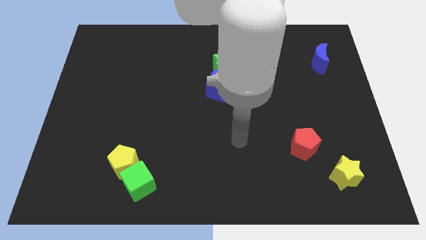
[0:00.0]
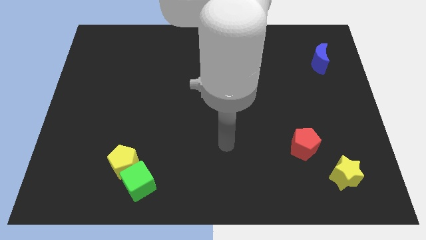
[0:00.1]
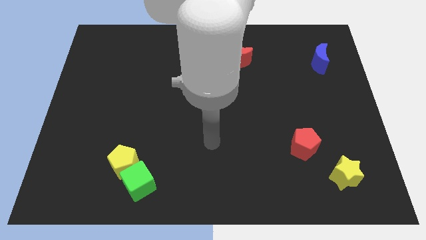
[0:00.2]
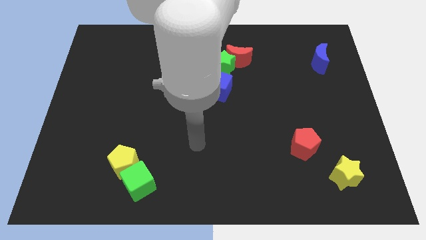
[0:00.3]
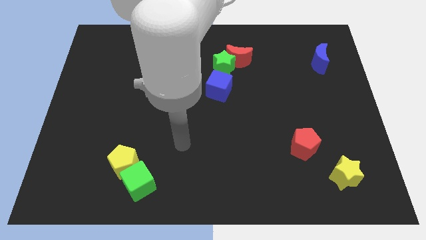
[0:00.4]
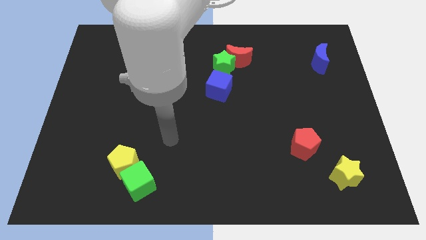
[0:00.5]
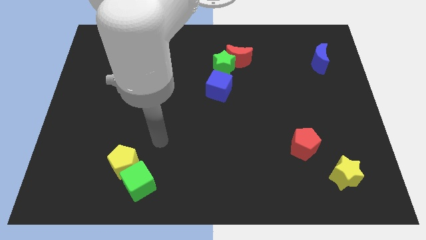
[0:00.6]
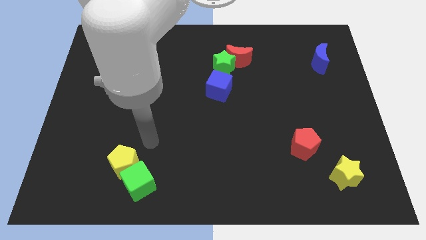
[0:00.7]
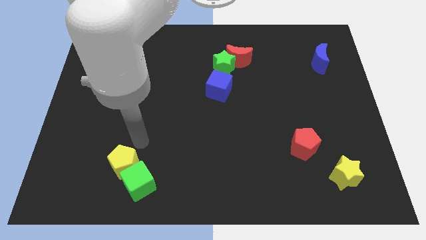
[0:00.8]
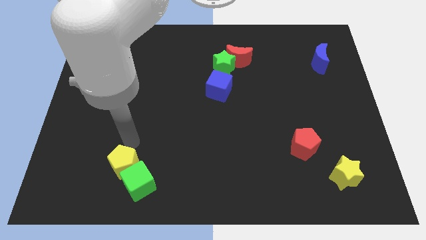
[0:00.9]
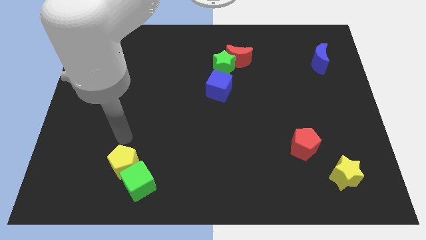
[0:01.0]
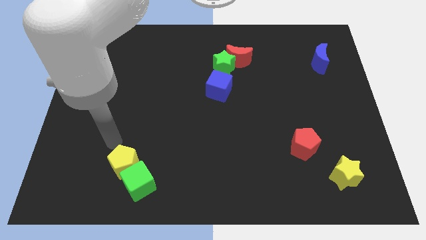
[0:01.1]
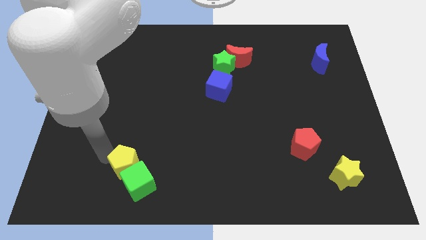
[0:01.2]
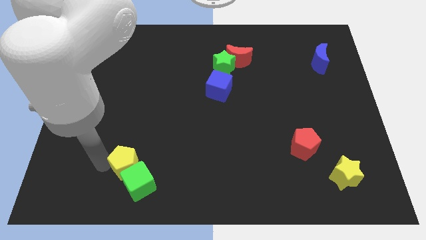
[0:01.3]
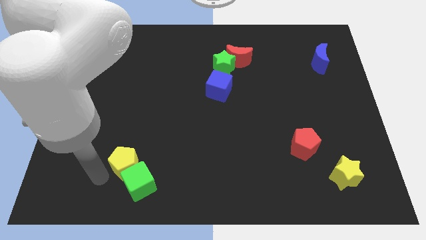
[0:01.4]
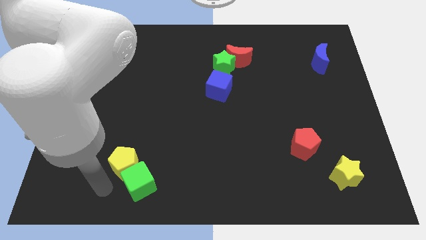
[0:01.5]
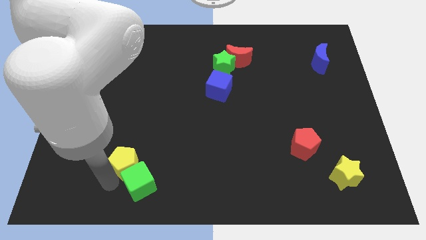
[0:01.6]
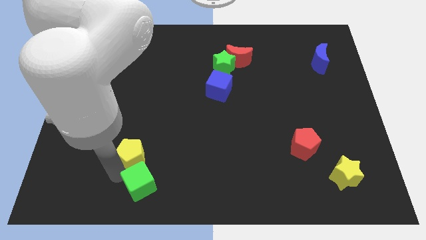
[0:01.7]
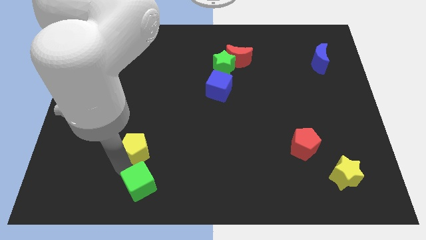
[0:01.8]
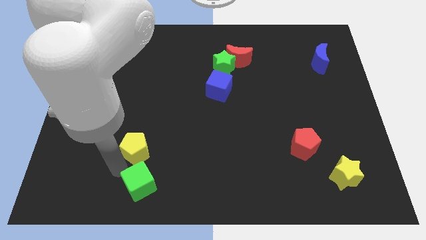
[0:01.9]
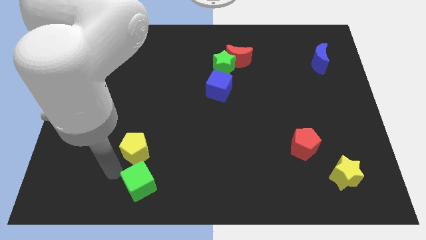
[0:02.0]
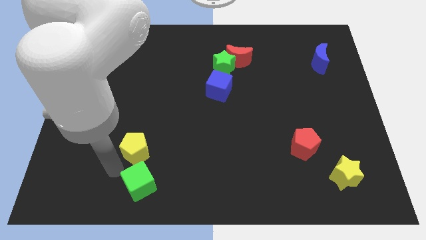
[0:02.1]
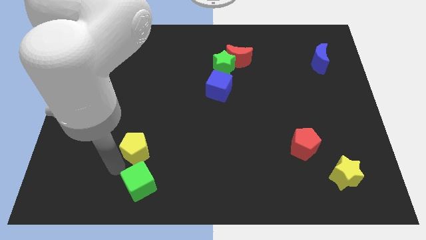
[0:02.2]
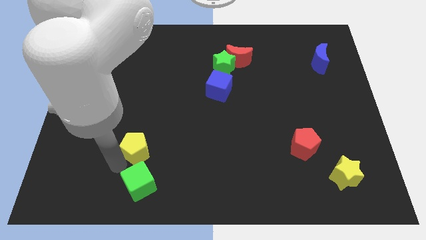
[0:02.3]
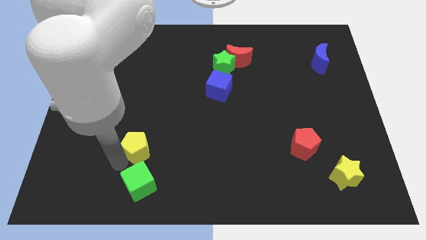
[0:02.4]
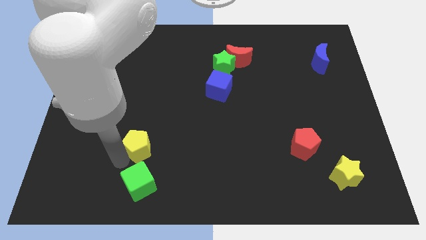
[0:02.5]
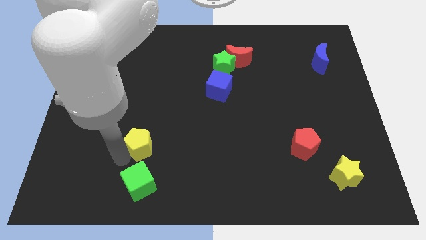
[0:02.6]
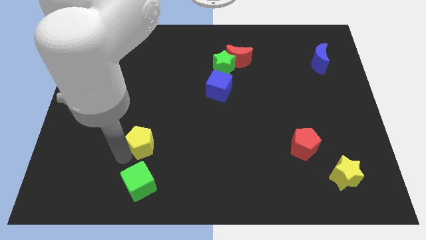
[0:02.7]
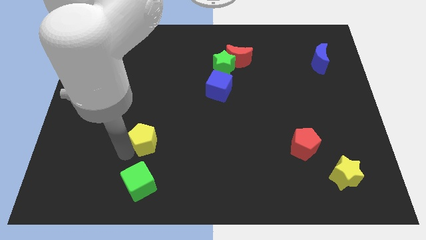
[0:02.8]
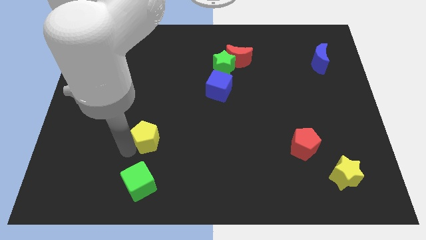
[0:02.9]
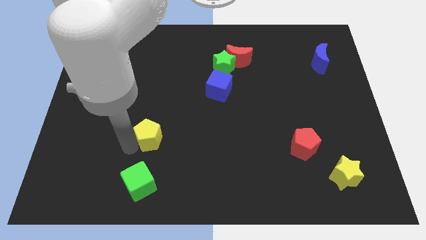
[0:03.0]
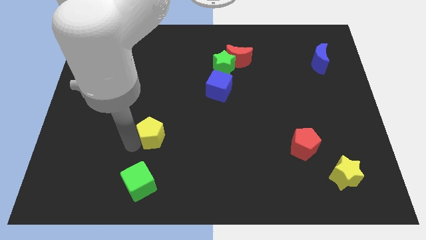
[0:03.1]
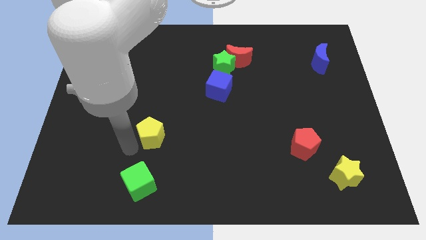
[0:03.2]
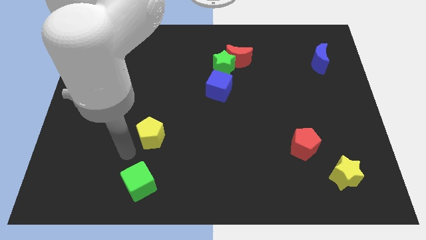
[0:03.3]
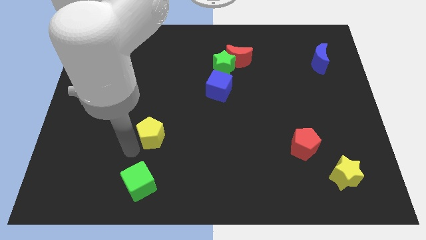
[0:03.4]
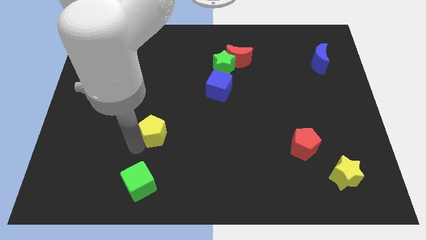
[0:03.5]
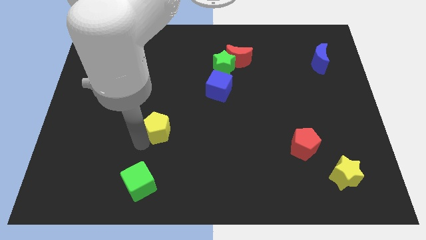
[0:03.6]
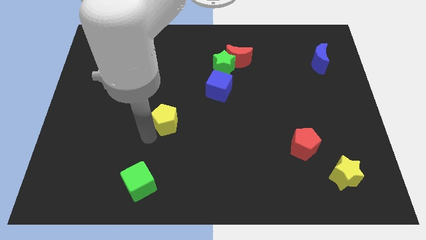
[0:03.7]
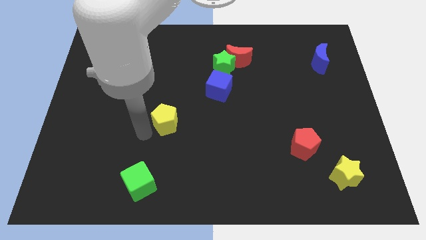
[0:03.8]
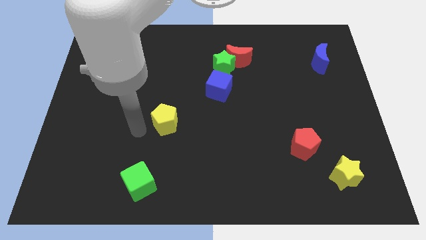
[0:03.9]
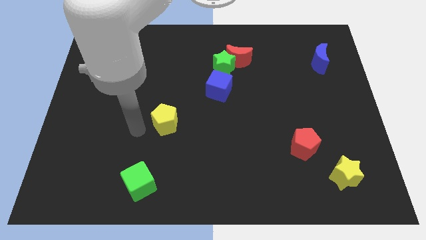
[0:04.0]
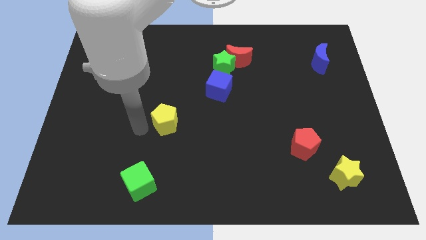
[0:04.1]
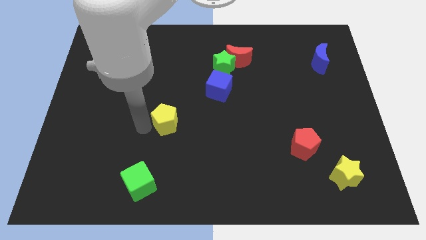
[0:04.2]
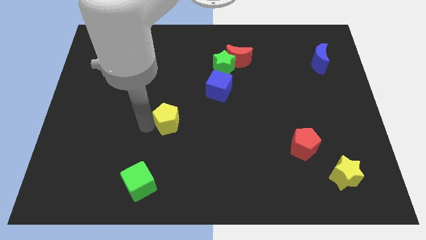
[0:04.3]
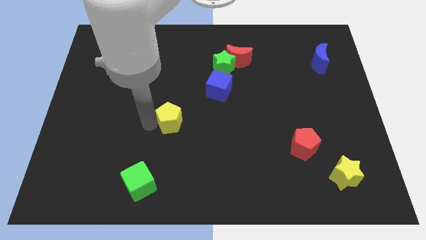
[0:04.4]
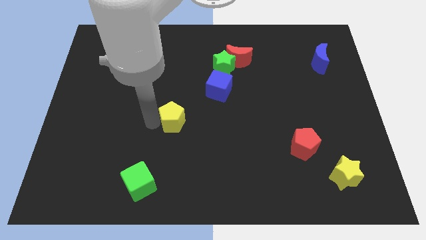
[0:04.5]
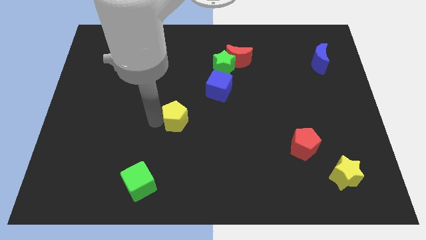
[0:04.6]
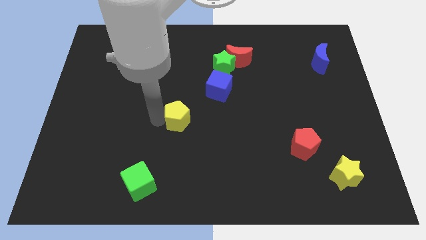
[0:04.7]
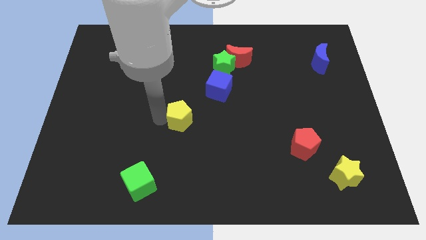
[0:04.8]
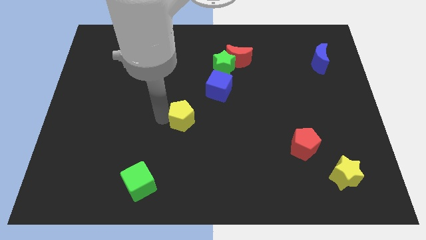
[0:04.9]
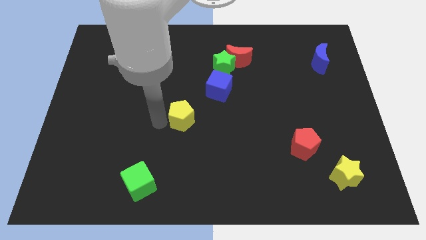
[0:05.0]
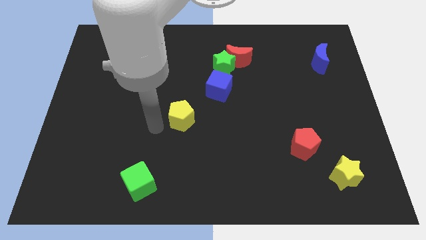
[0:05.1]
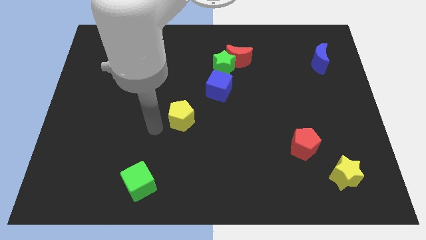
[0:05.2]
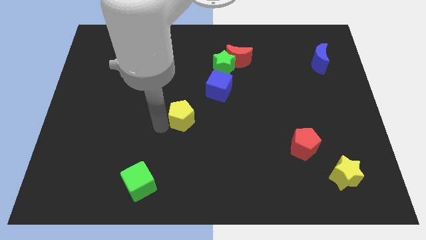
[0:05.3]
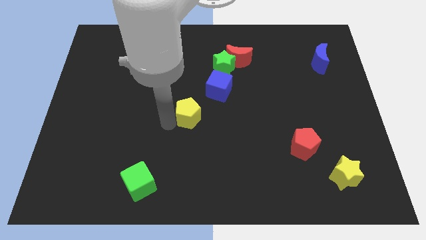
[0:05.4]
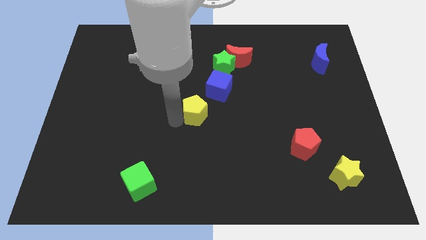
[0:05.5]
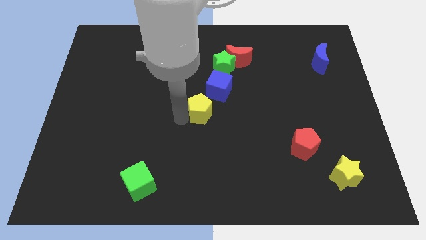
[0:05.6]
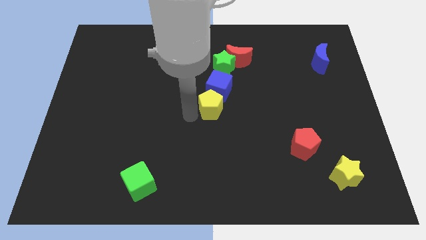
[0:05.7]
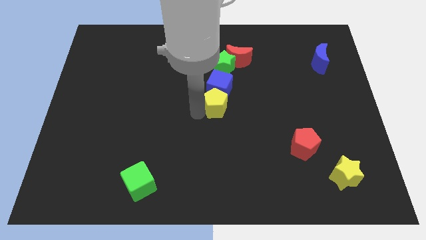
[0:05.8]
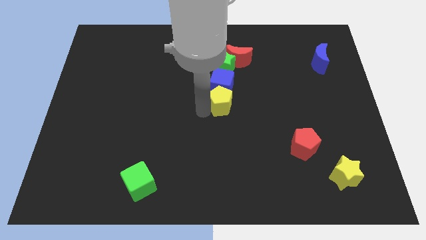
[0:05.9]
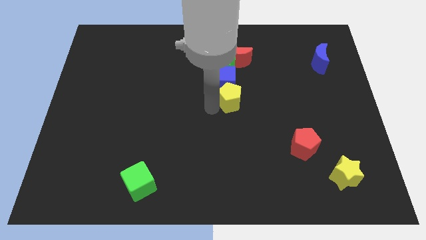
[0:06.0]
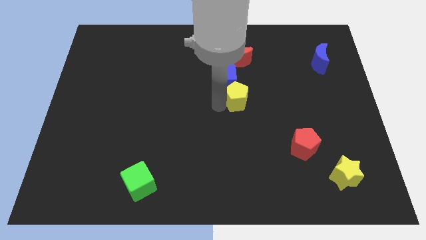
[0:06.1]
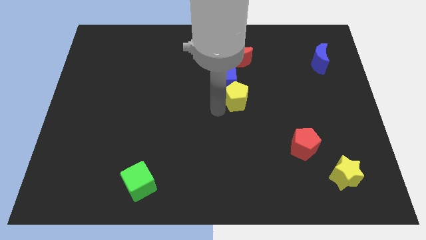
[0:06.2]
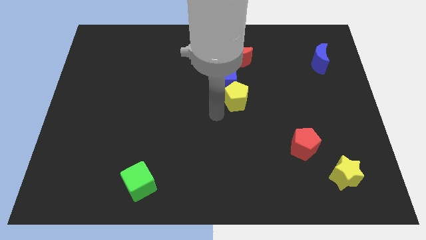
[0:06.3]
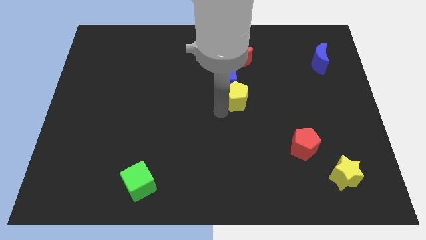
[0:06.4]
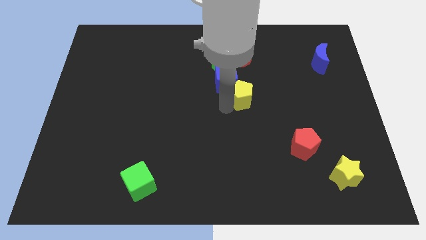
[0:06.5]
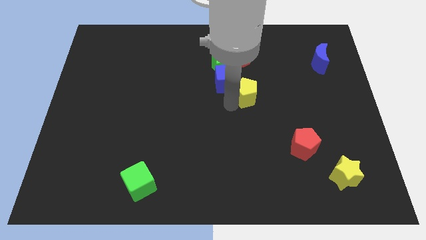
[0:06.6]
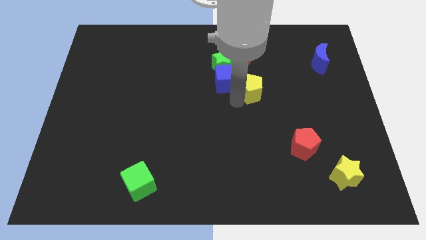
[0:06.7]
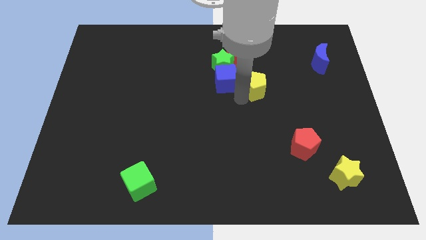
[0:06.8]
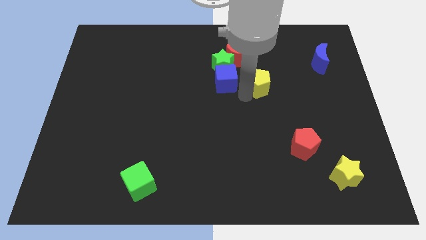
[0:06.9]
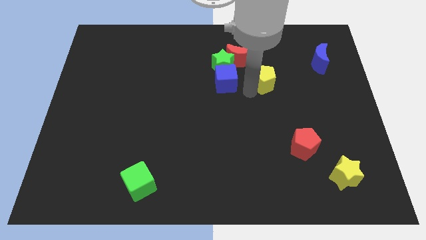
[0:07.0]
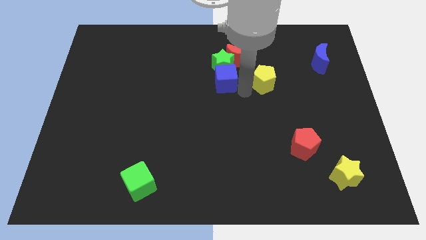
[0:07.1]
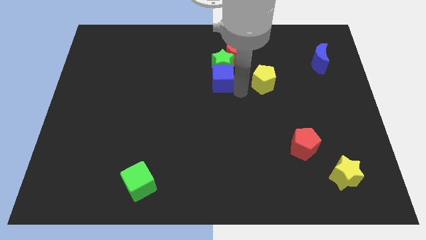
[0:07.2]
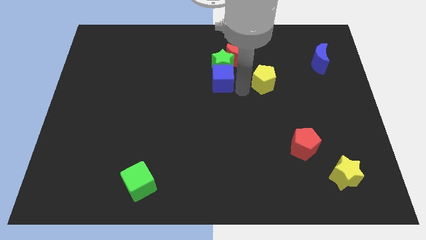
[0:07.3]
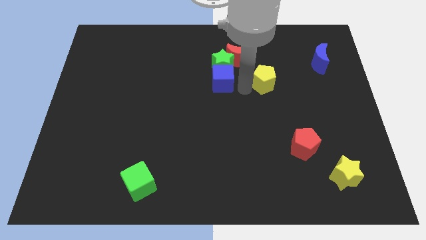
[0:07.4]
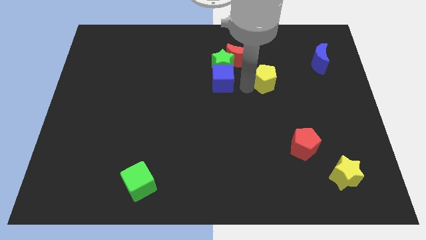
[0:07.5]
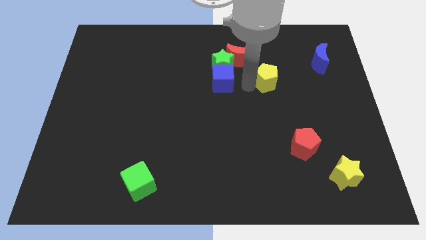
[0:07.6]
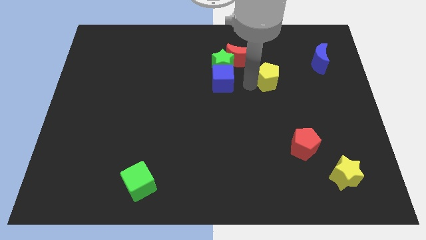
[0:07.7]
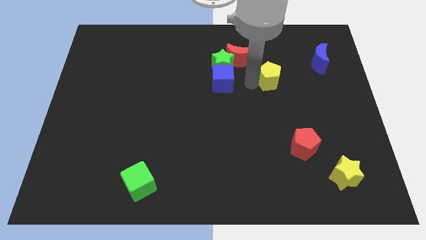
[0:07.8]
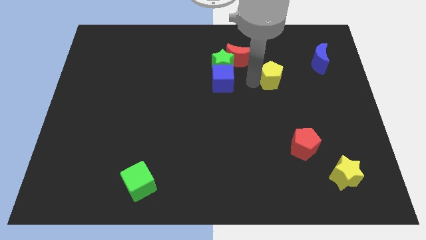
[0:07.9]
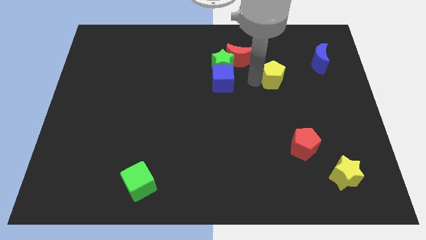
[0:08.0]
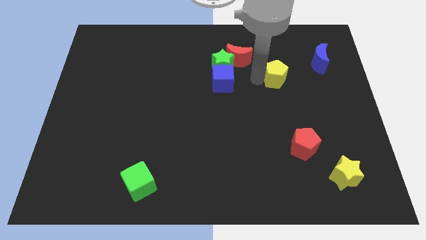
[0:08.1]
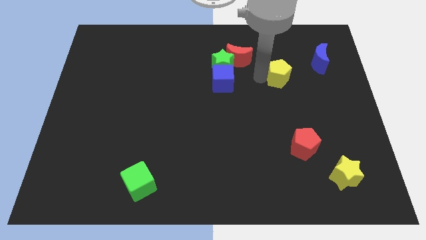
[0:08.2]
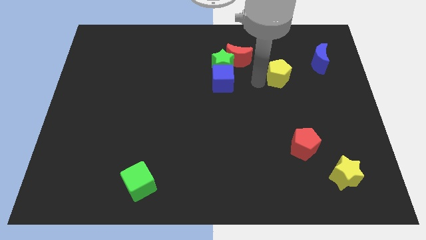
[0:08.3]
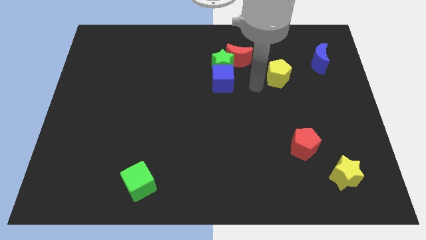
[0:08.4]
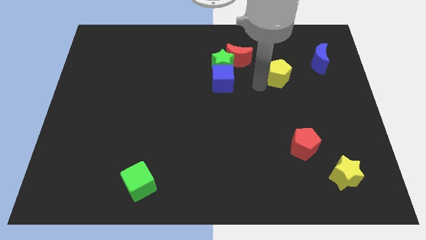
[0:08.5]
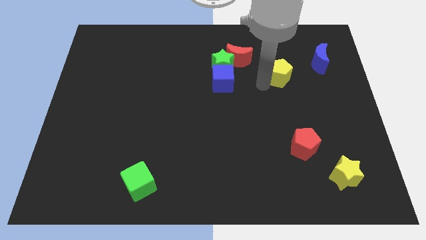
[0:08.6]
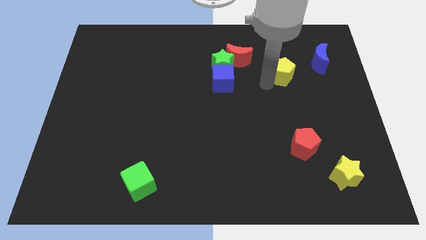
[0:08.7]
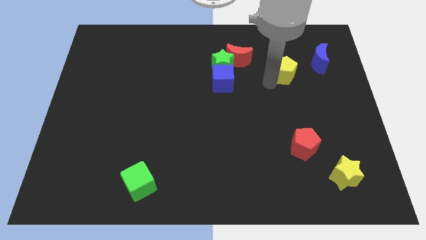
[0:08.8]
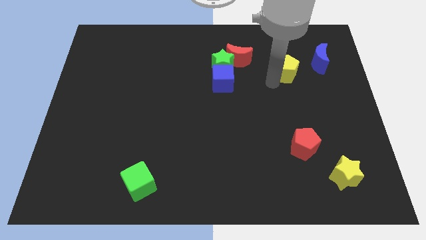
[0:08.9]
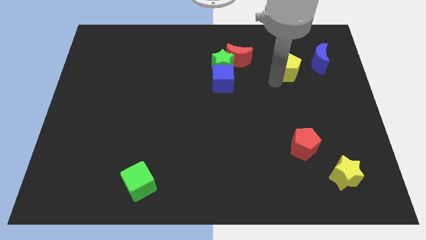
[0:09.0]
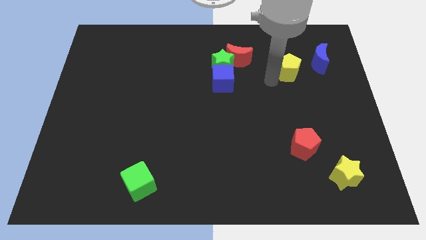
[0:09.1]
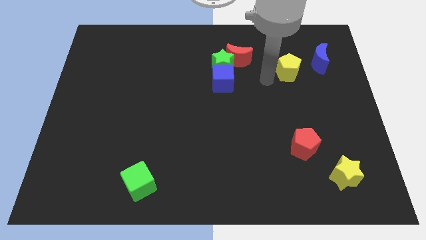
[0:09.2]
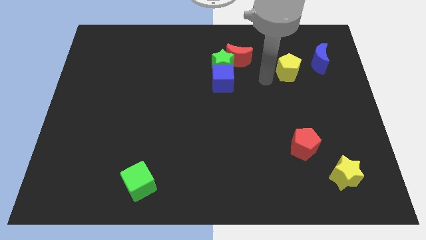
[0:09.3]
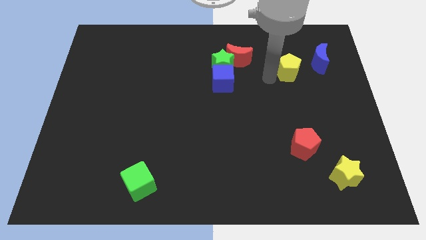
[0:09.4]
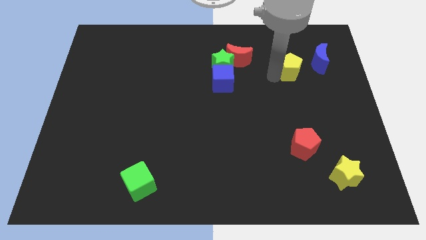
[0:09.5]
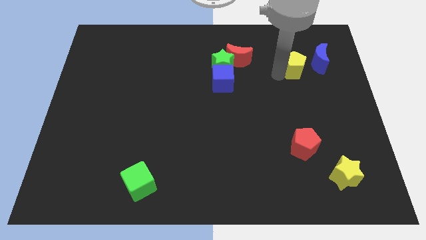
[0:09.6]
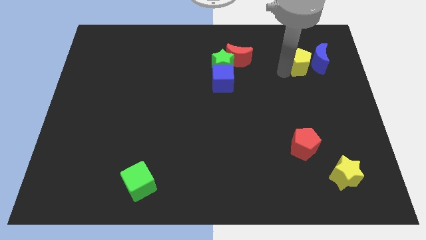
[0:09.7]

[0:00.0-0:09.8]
slide the yellow pentagon towards the blue moon
